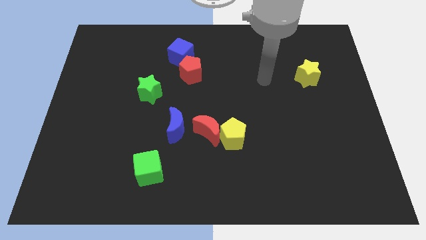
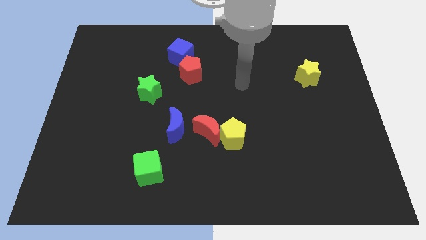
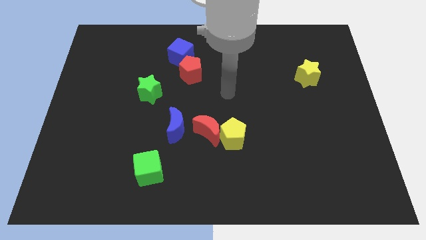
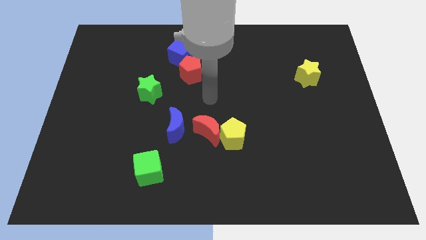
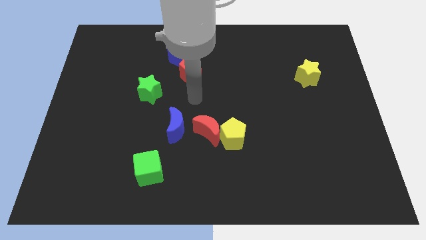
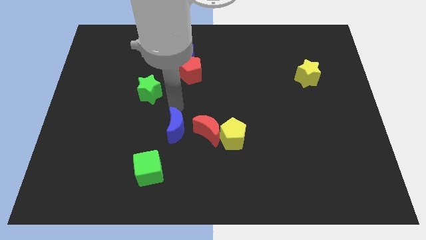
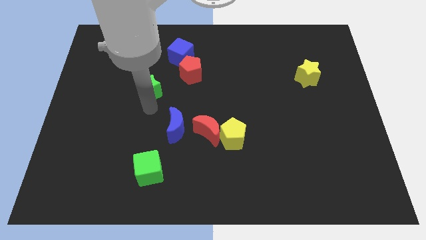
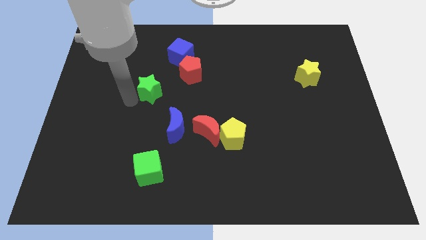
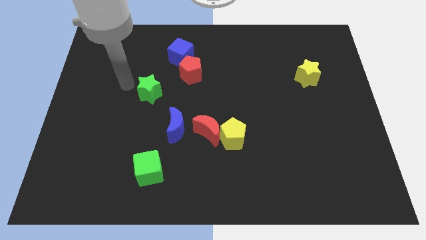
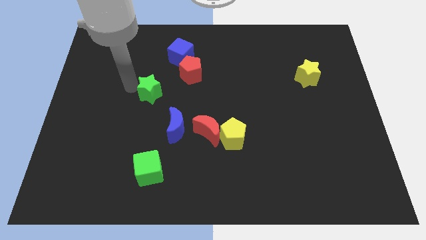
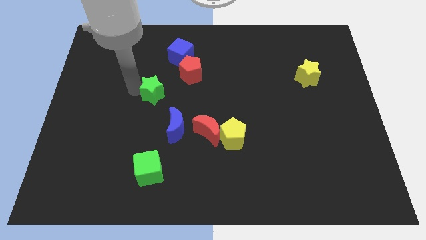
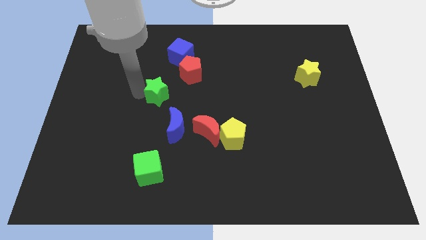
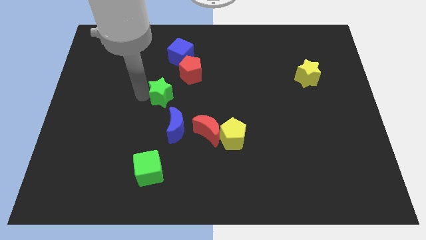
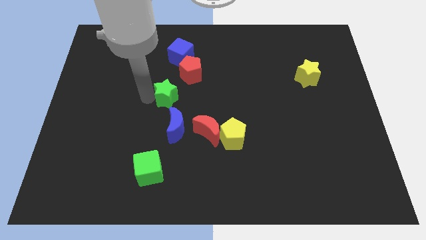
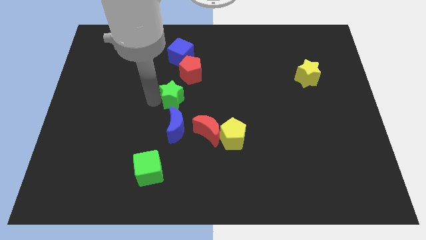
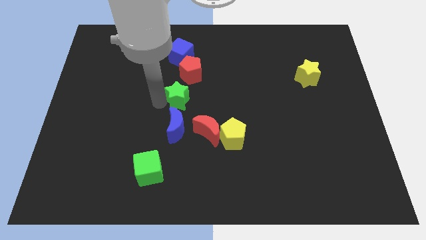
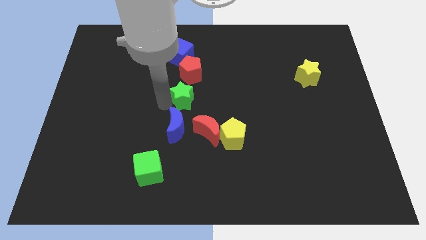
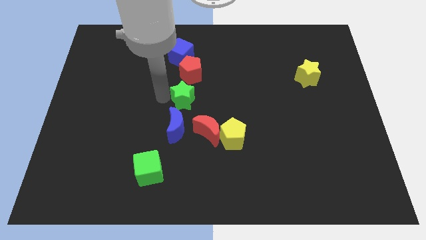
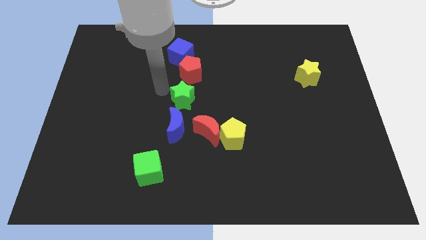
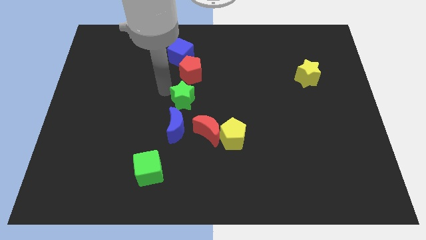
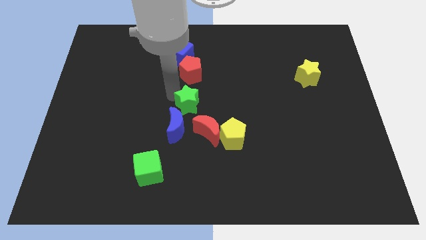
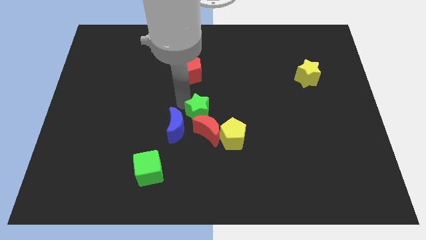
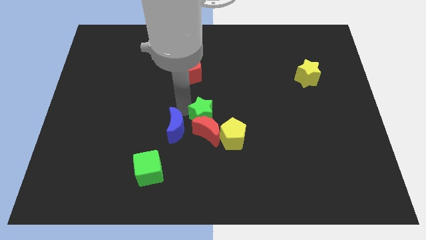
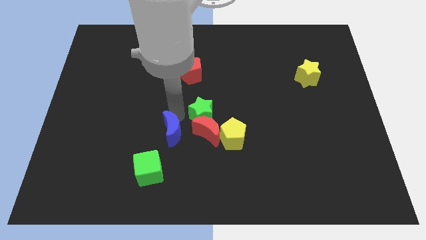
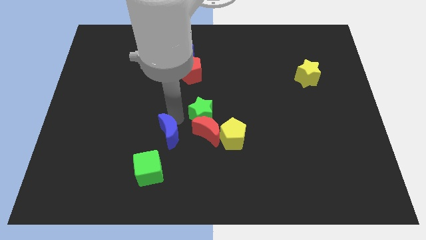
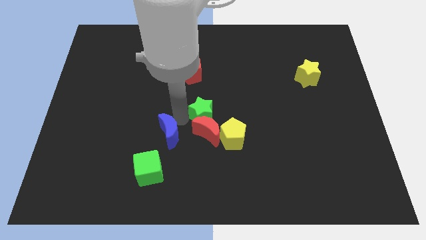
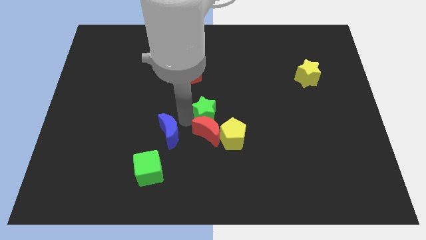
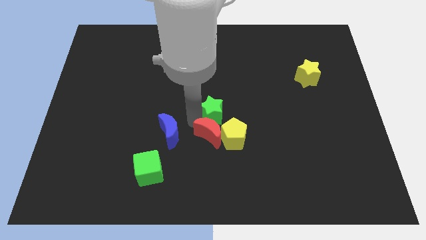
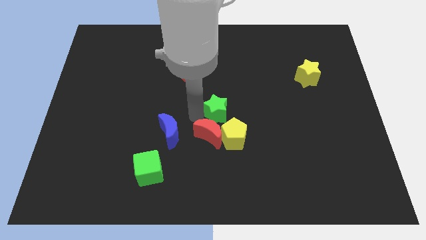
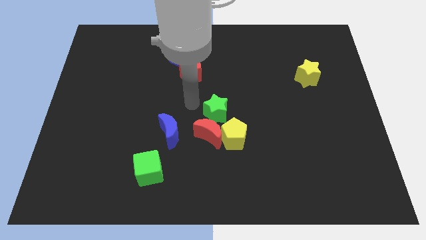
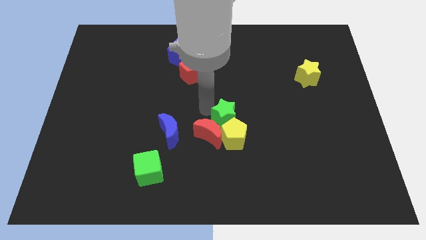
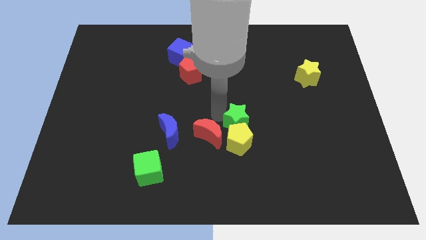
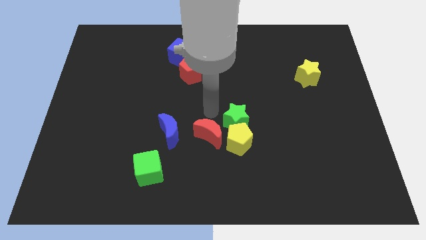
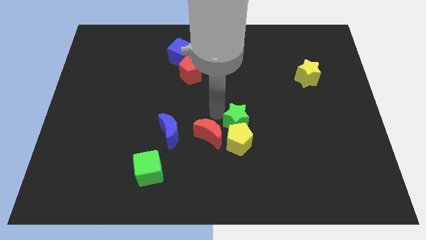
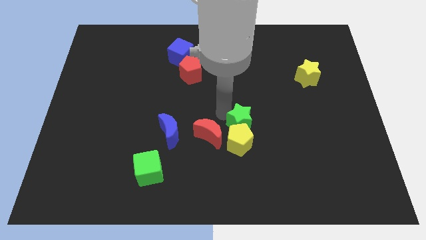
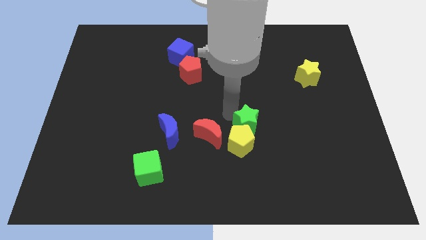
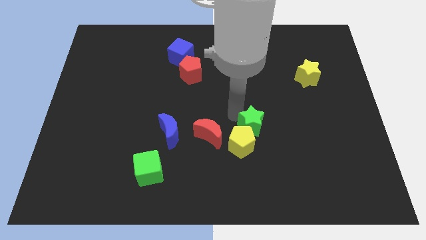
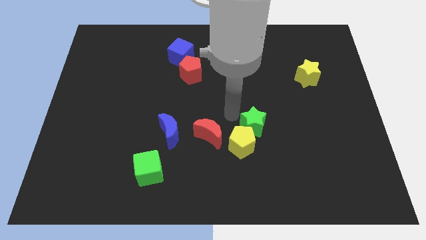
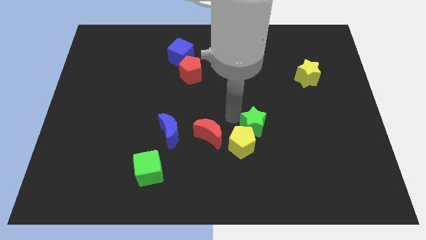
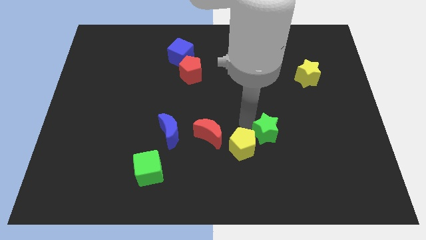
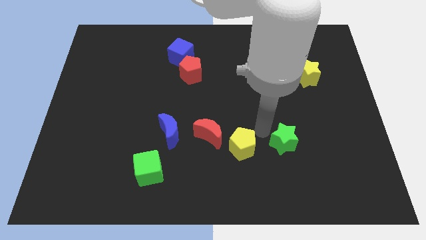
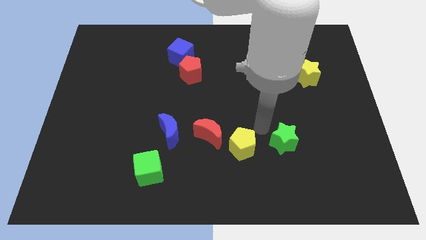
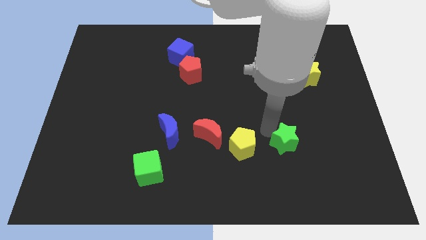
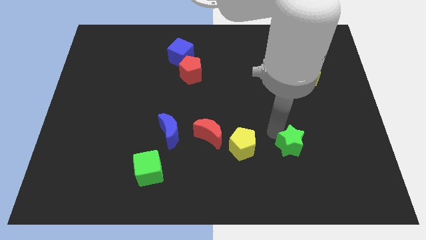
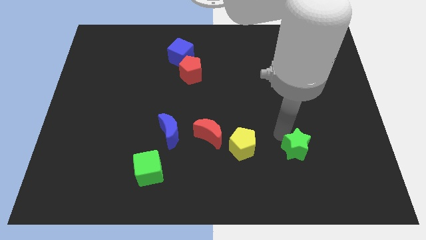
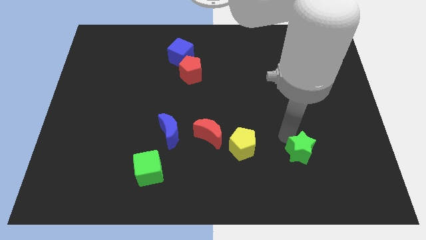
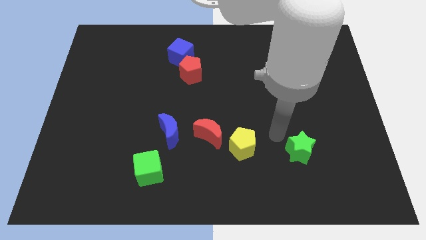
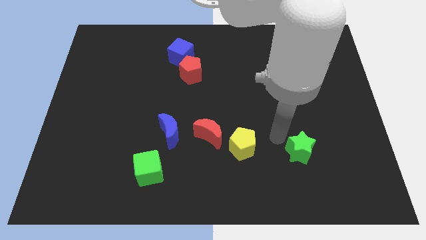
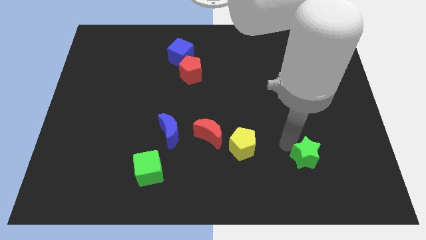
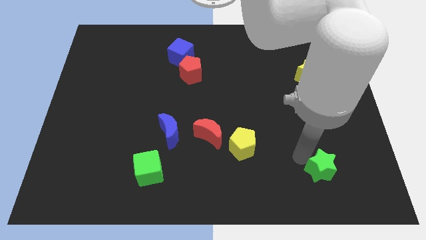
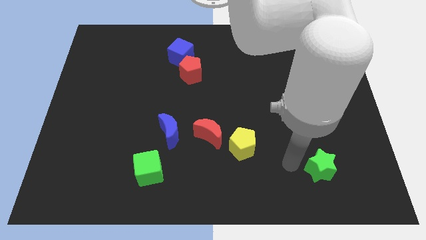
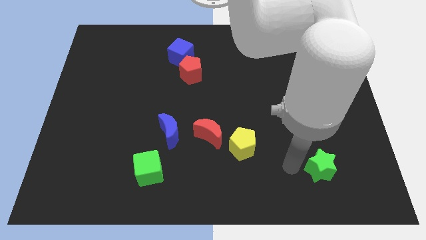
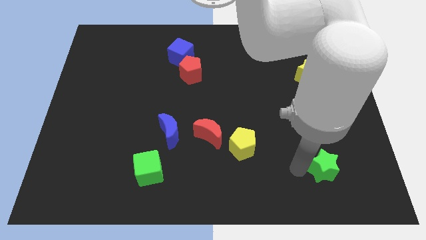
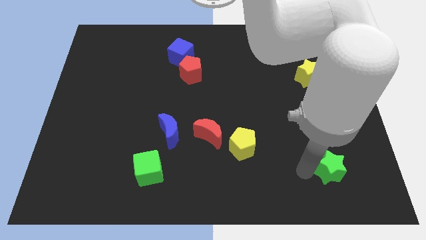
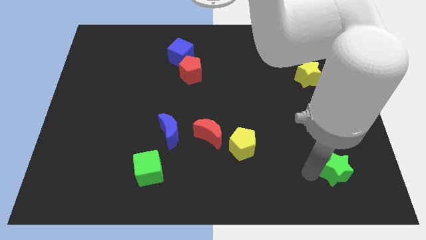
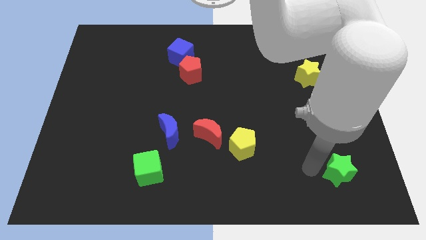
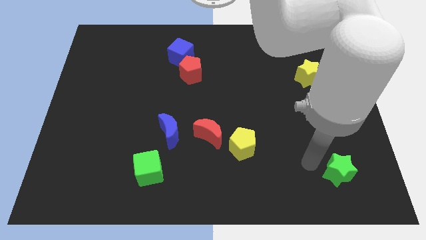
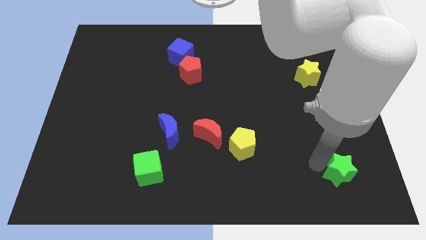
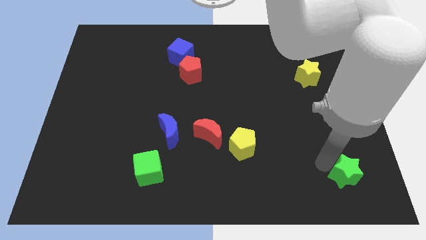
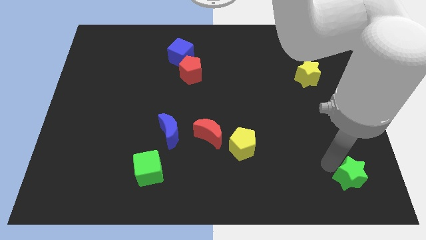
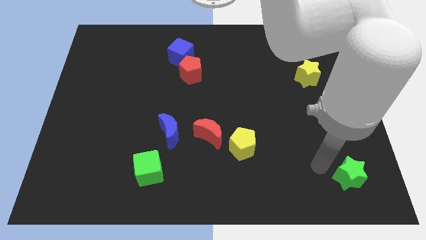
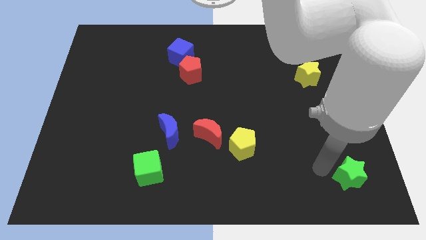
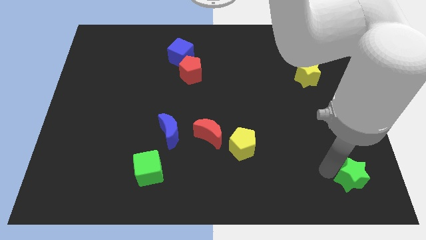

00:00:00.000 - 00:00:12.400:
slide the green star to the bottom right
